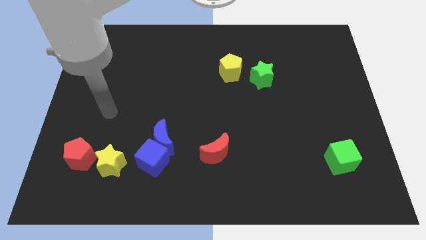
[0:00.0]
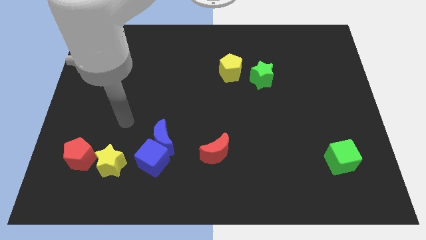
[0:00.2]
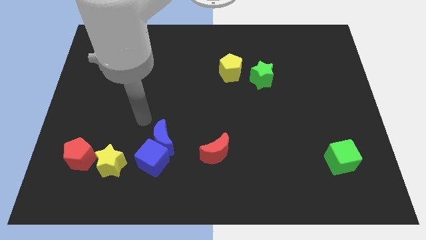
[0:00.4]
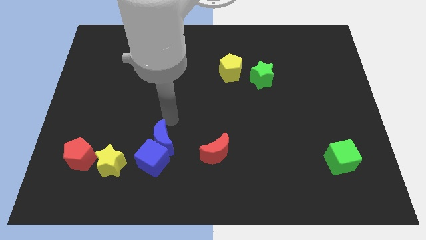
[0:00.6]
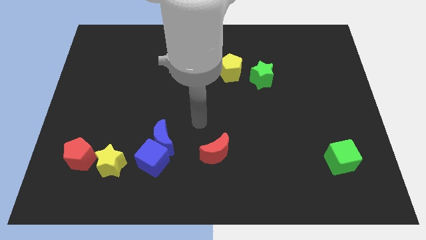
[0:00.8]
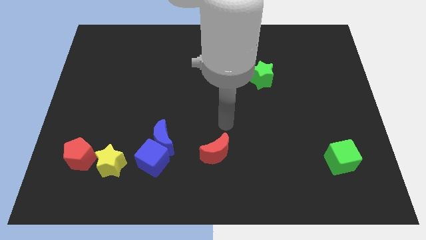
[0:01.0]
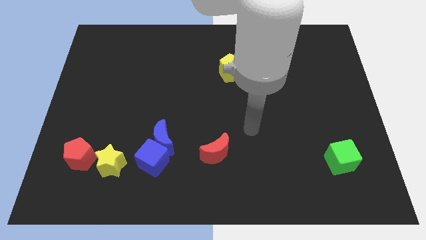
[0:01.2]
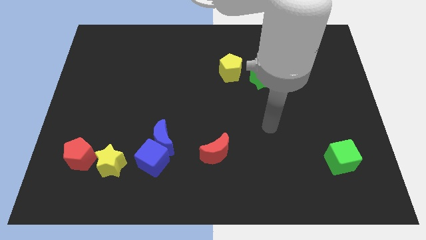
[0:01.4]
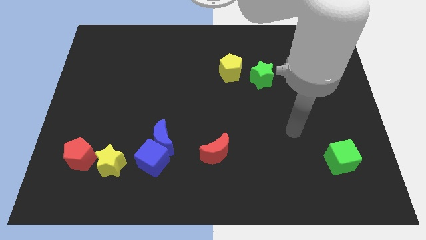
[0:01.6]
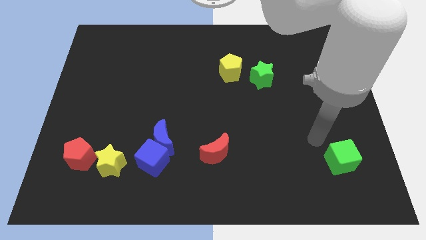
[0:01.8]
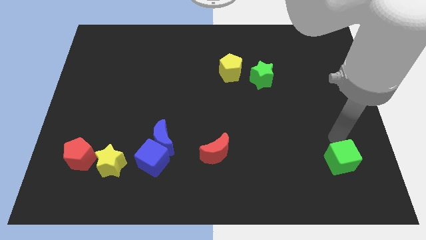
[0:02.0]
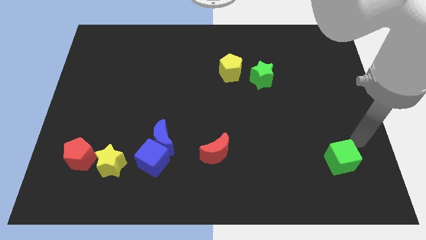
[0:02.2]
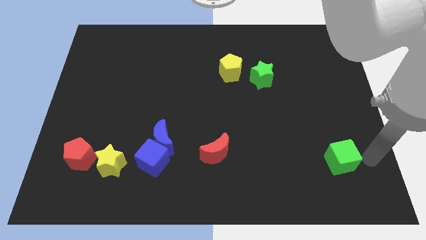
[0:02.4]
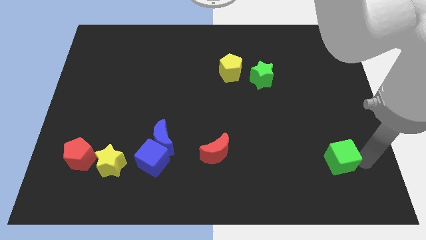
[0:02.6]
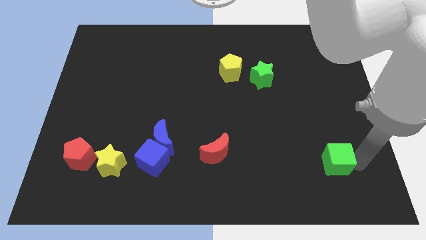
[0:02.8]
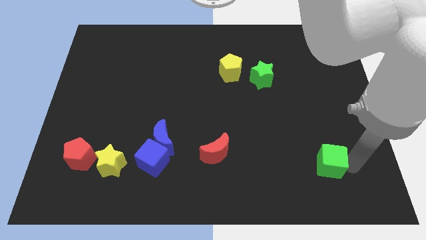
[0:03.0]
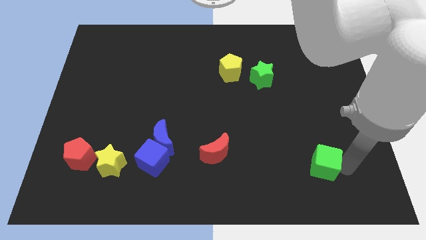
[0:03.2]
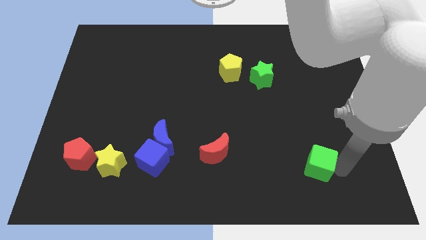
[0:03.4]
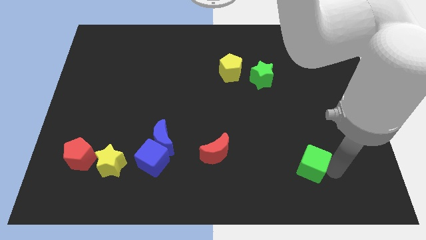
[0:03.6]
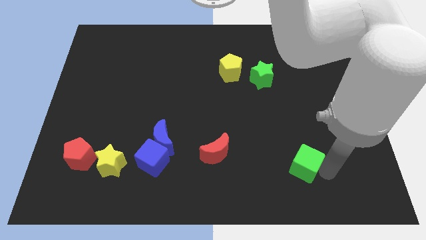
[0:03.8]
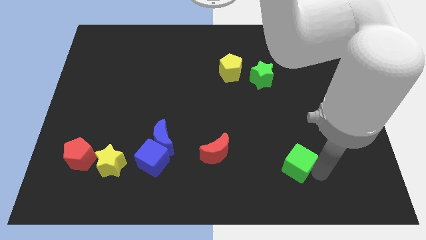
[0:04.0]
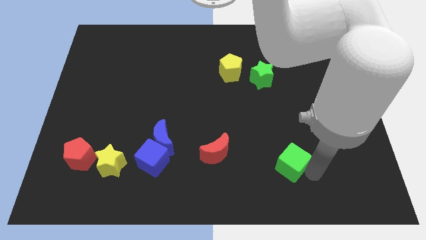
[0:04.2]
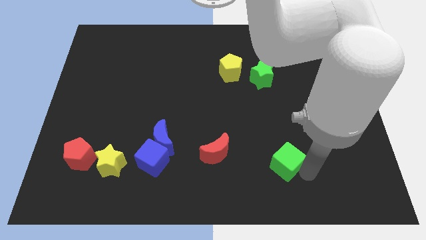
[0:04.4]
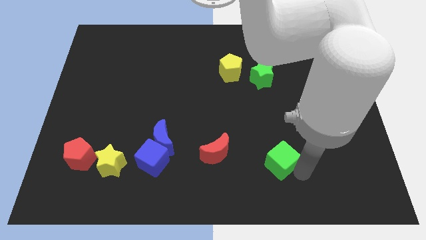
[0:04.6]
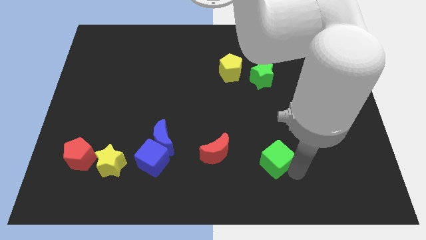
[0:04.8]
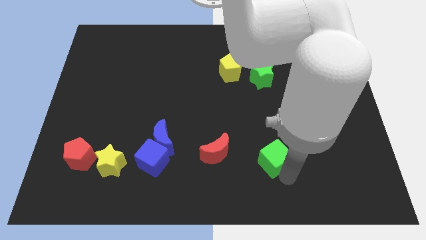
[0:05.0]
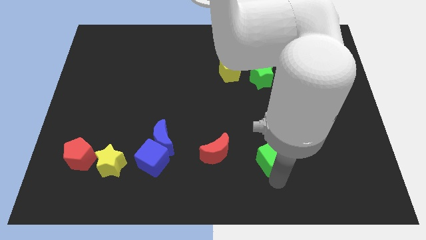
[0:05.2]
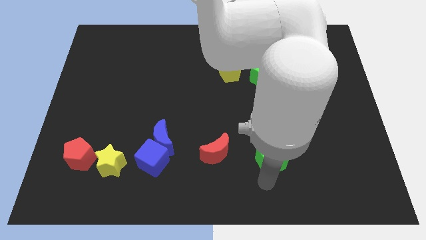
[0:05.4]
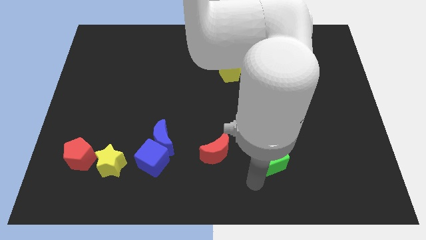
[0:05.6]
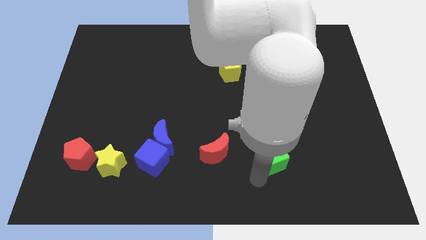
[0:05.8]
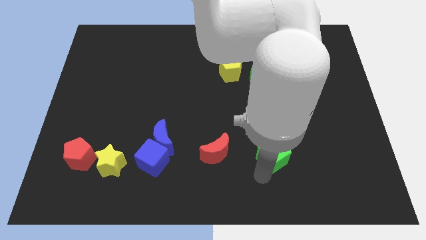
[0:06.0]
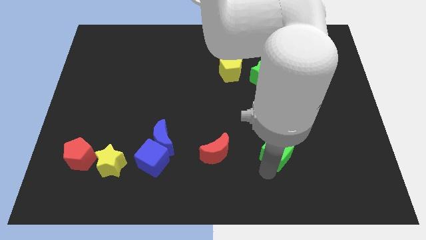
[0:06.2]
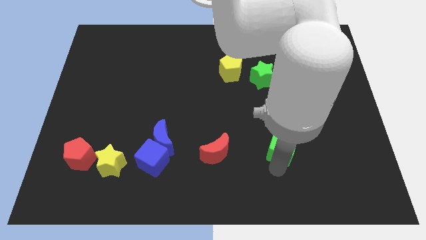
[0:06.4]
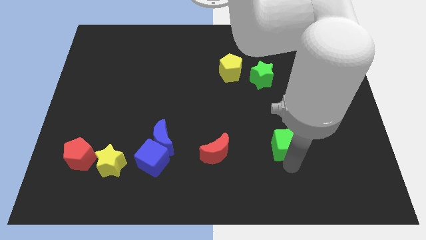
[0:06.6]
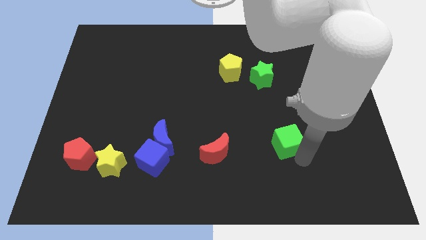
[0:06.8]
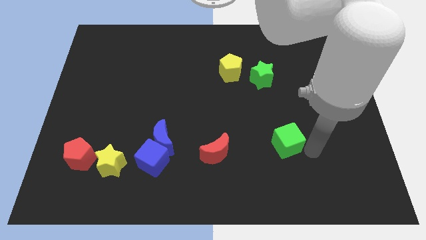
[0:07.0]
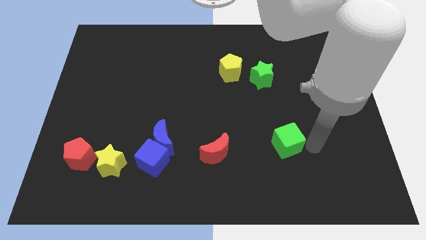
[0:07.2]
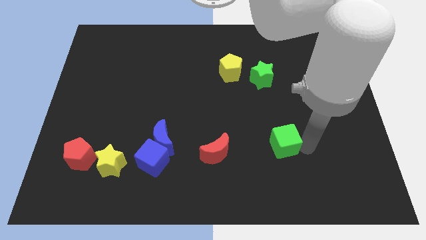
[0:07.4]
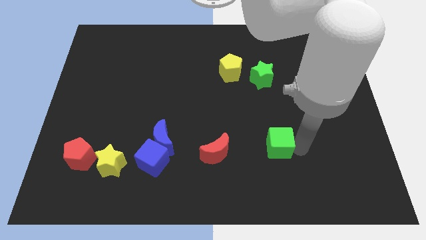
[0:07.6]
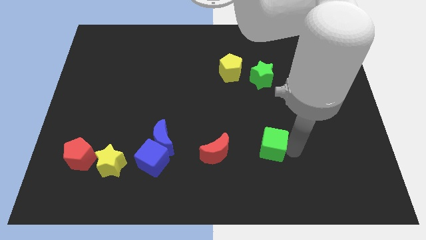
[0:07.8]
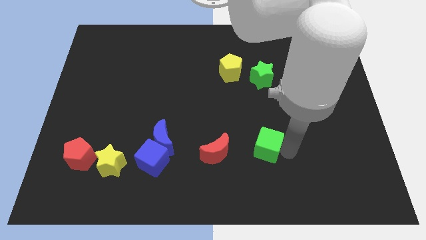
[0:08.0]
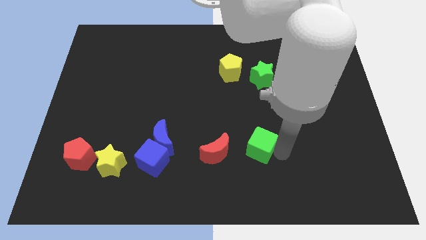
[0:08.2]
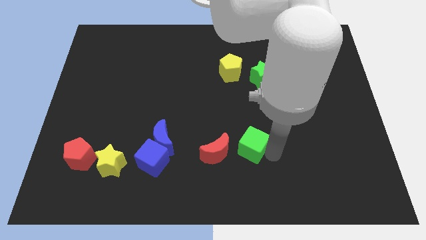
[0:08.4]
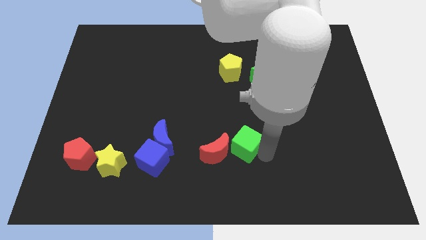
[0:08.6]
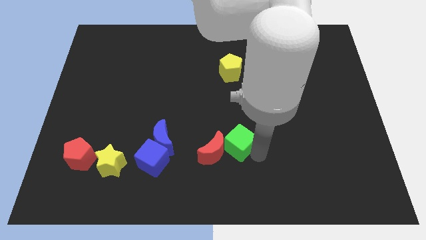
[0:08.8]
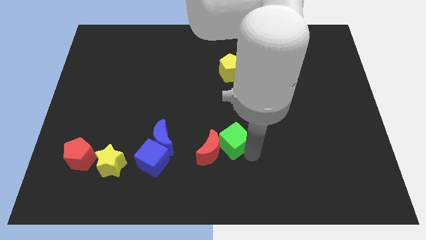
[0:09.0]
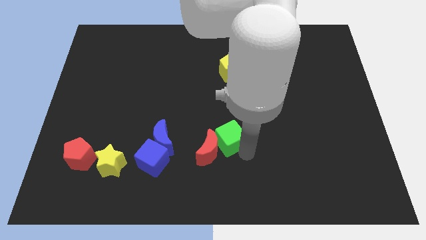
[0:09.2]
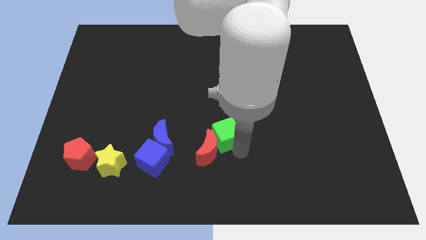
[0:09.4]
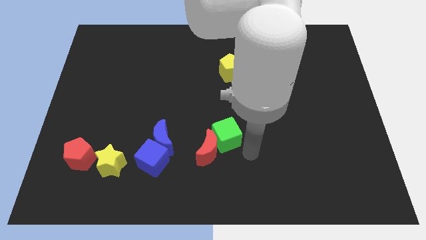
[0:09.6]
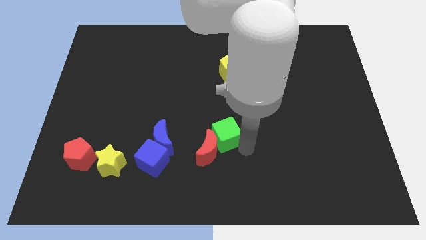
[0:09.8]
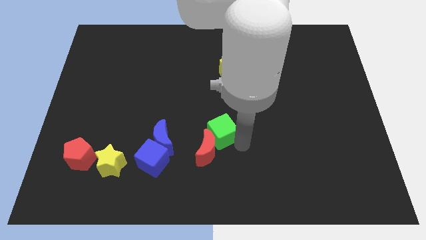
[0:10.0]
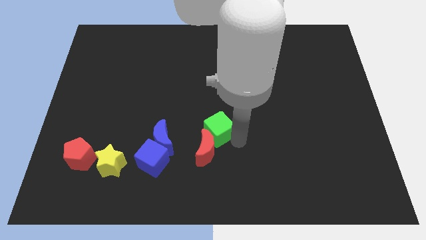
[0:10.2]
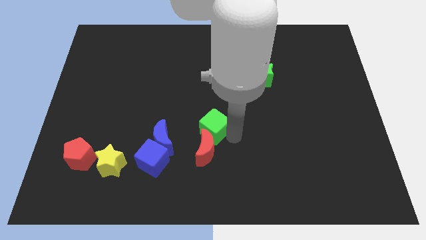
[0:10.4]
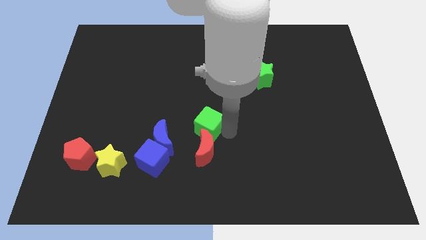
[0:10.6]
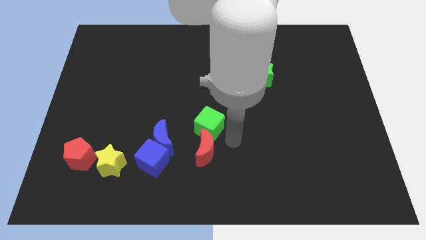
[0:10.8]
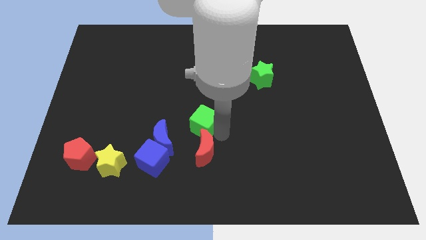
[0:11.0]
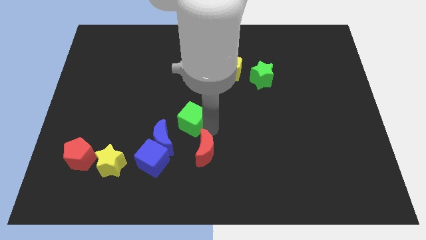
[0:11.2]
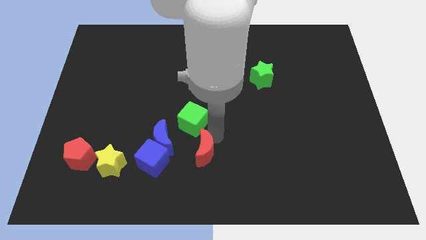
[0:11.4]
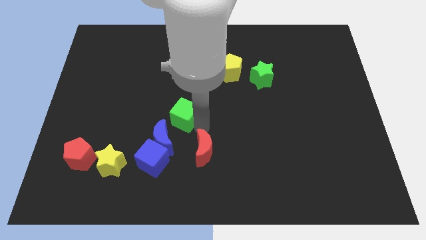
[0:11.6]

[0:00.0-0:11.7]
slide the green cube above the blue moon

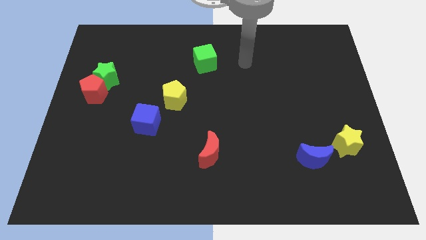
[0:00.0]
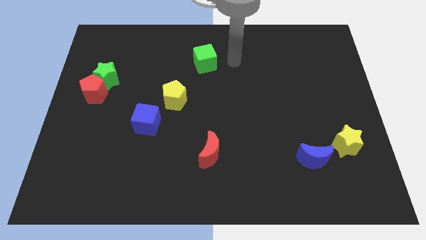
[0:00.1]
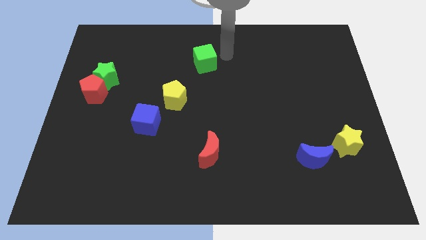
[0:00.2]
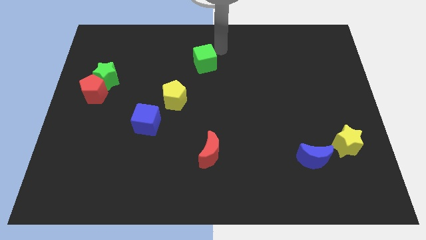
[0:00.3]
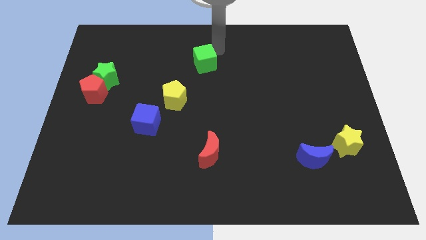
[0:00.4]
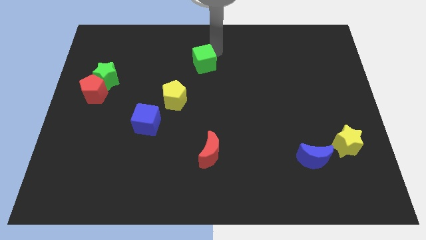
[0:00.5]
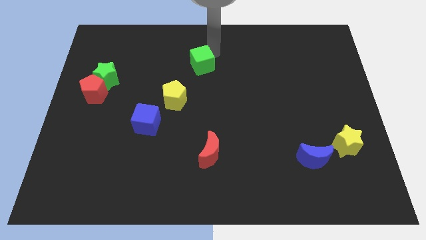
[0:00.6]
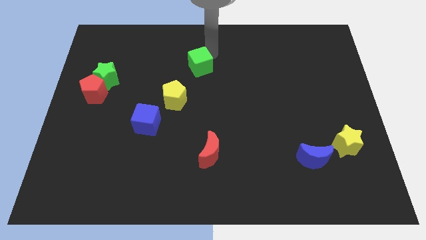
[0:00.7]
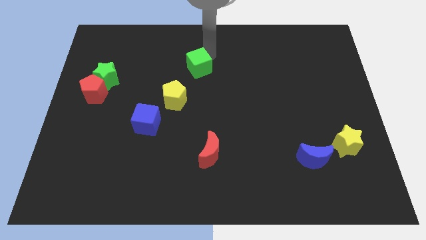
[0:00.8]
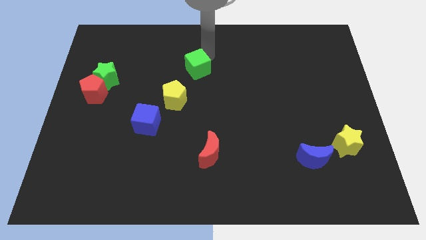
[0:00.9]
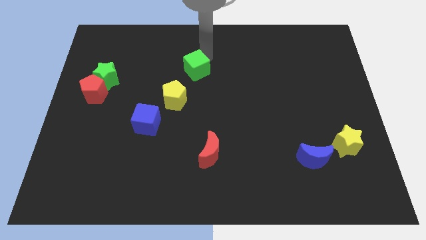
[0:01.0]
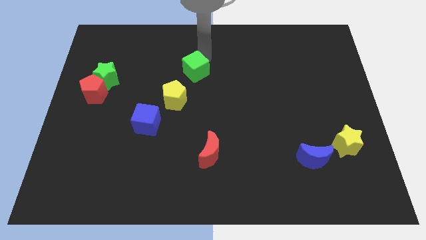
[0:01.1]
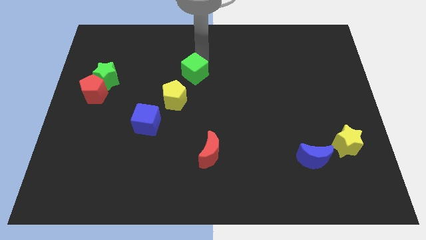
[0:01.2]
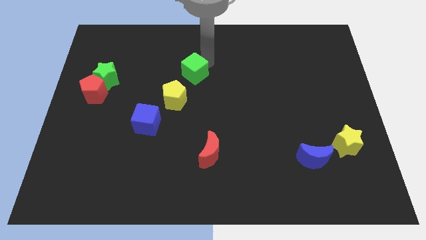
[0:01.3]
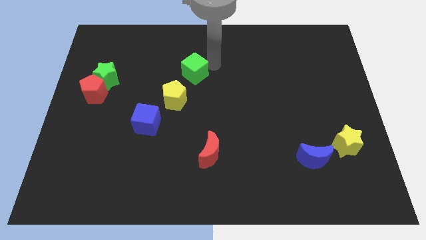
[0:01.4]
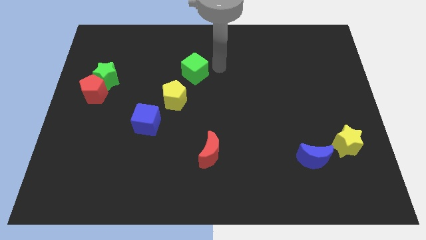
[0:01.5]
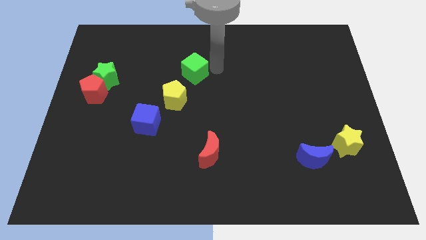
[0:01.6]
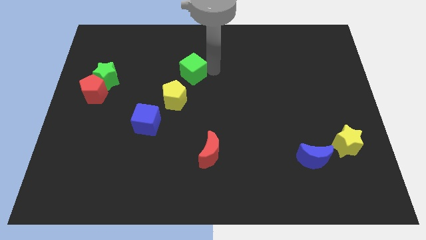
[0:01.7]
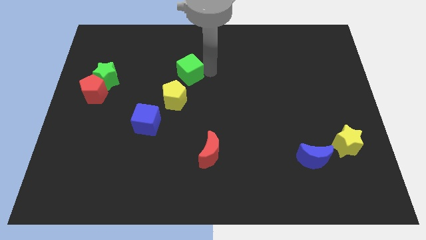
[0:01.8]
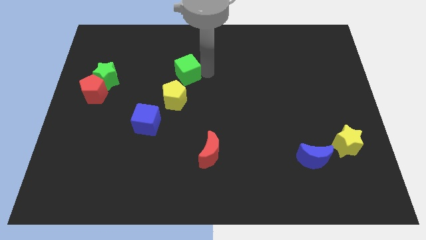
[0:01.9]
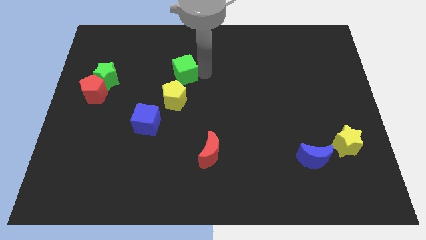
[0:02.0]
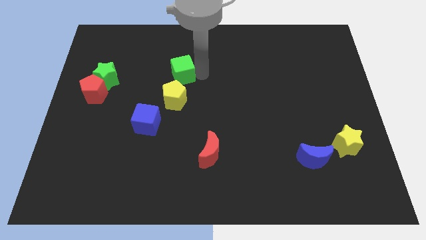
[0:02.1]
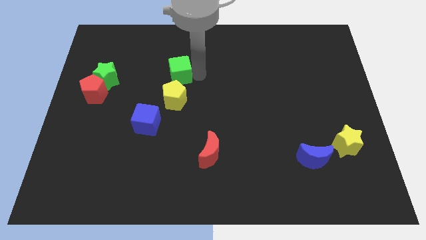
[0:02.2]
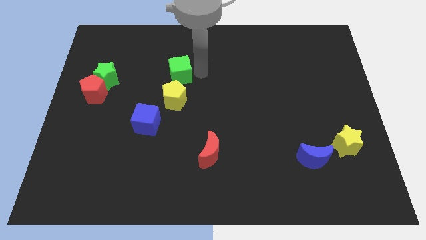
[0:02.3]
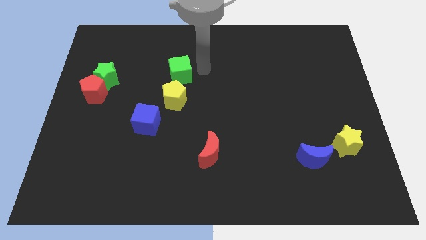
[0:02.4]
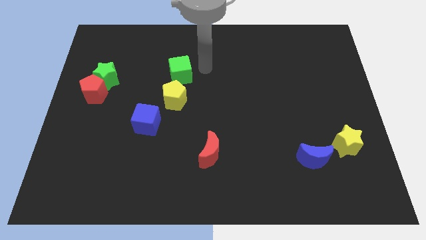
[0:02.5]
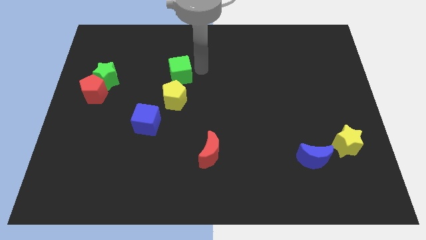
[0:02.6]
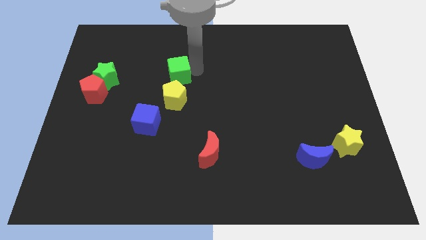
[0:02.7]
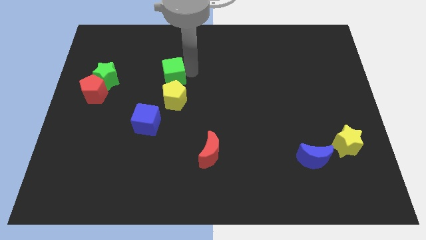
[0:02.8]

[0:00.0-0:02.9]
slide the green cube right of the green star
